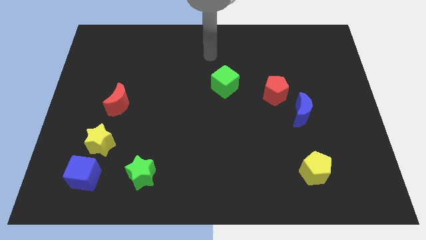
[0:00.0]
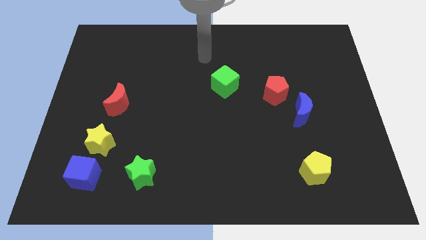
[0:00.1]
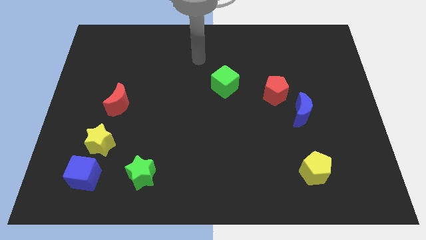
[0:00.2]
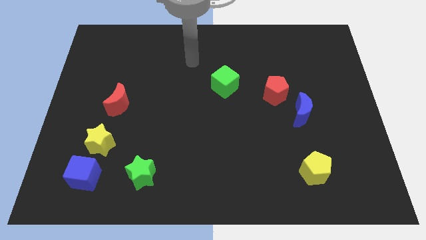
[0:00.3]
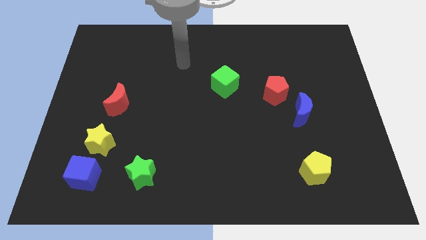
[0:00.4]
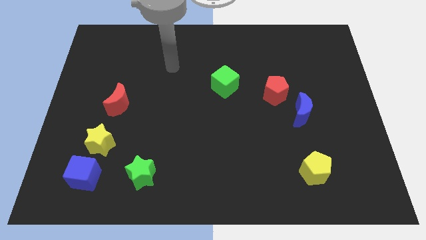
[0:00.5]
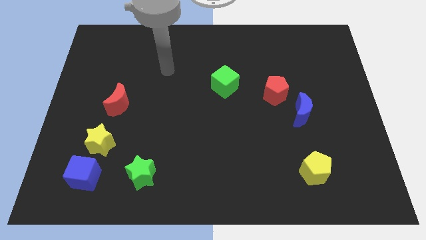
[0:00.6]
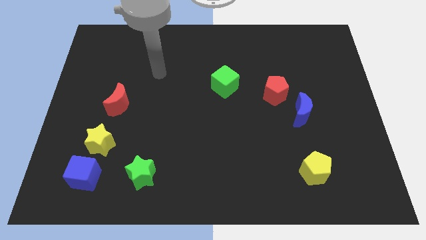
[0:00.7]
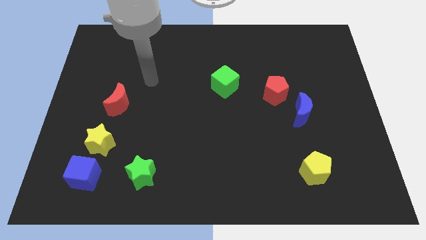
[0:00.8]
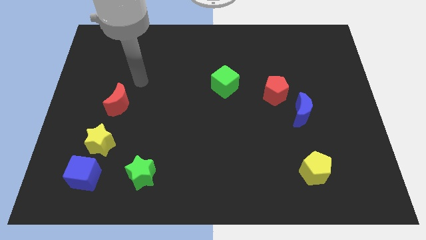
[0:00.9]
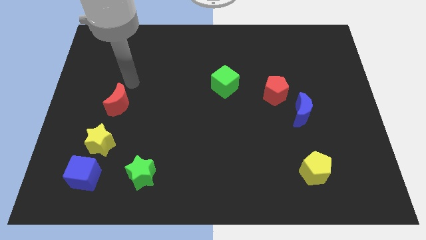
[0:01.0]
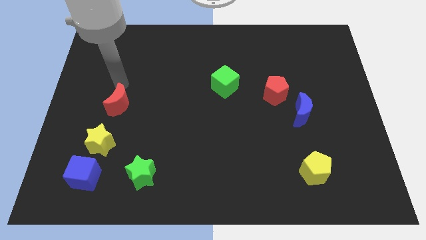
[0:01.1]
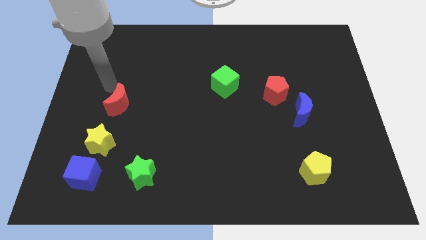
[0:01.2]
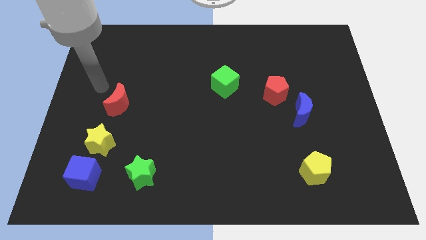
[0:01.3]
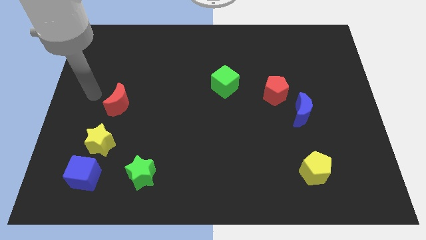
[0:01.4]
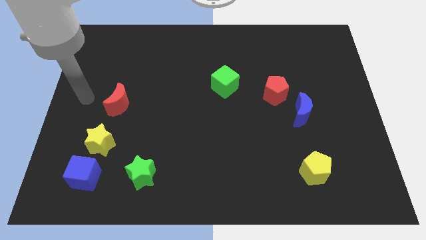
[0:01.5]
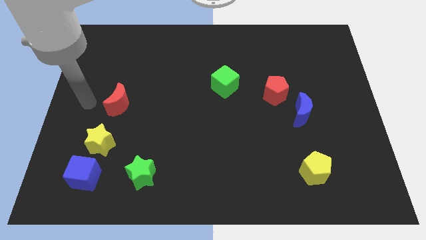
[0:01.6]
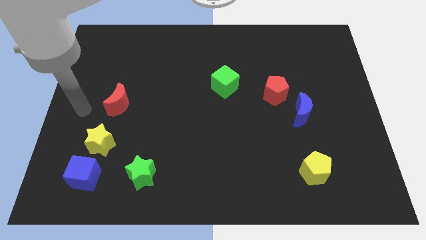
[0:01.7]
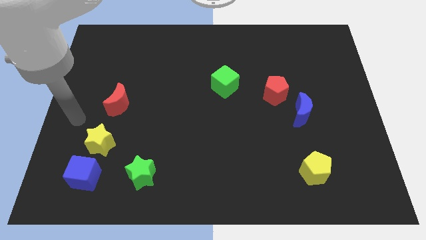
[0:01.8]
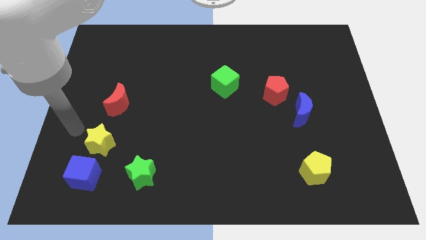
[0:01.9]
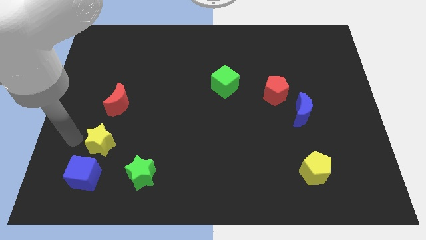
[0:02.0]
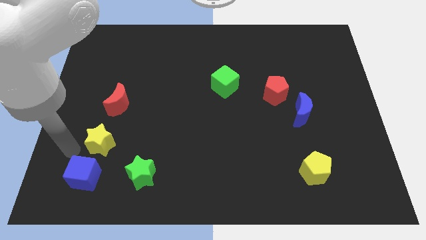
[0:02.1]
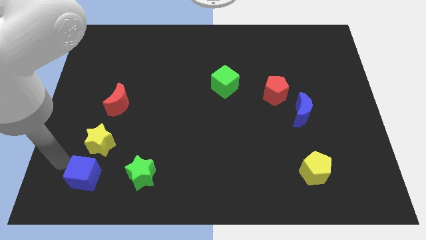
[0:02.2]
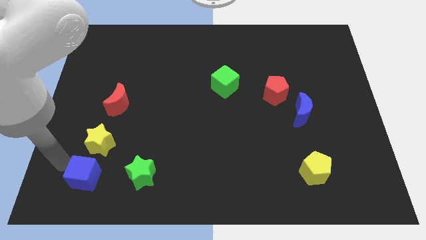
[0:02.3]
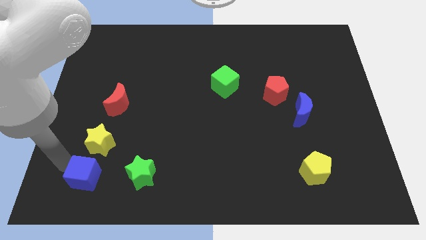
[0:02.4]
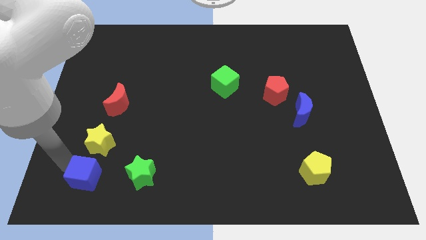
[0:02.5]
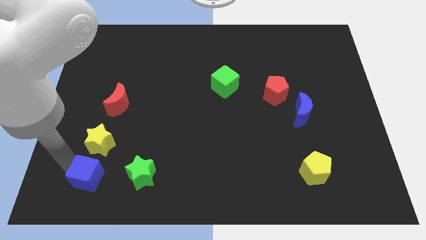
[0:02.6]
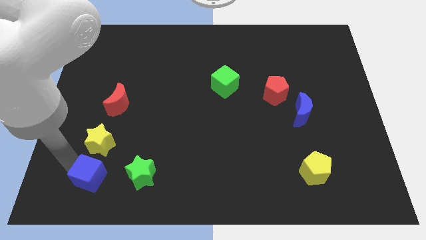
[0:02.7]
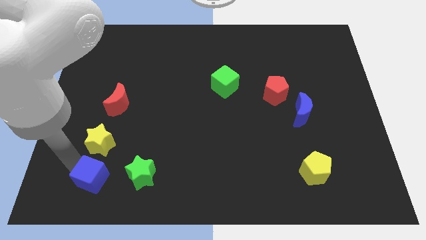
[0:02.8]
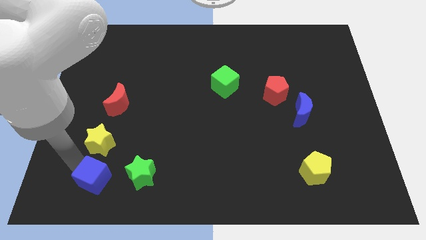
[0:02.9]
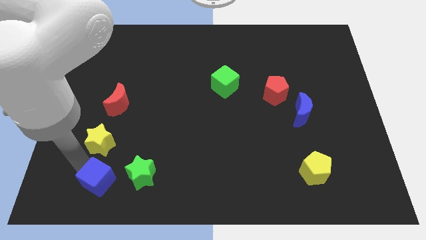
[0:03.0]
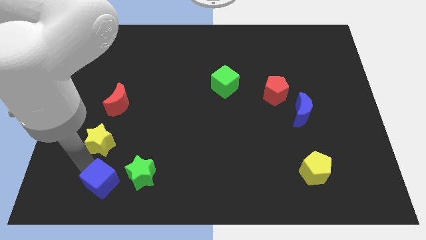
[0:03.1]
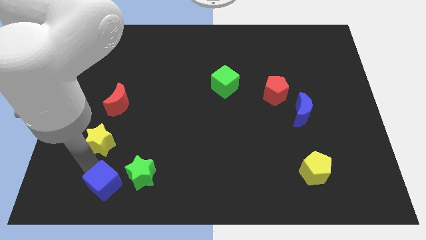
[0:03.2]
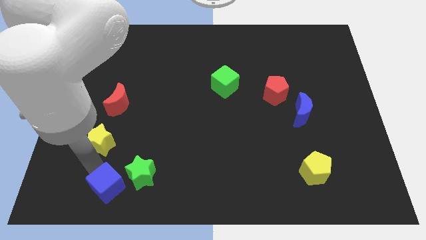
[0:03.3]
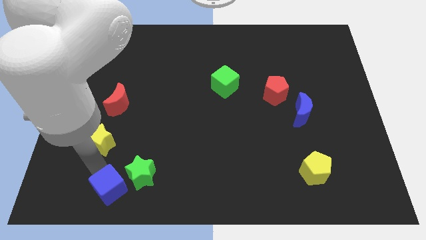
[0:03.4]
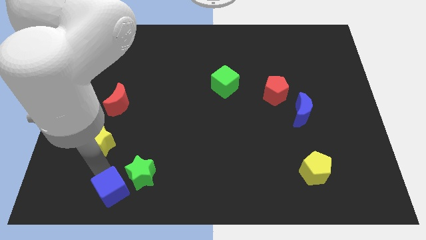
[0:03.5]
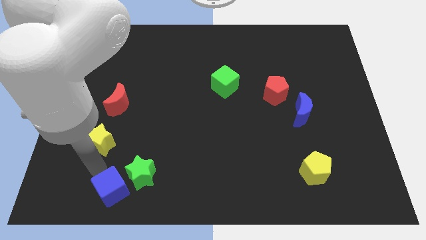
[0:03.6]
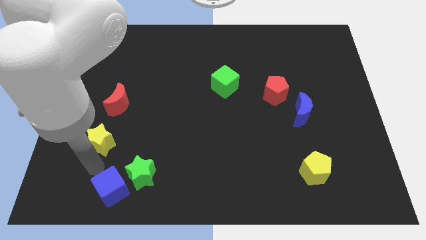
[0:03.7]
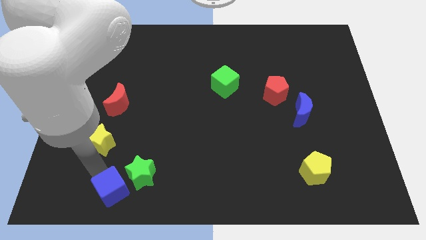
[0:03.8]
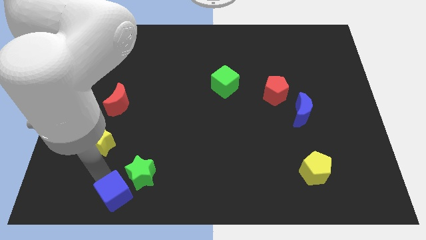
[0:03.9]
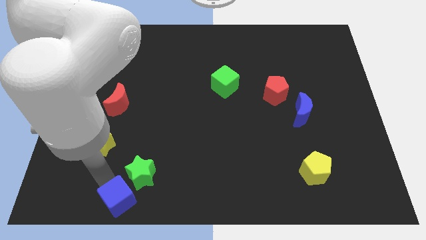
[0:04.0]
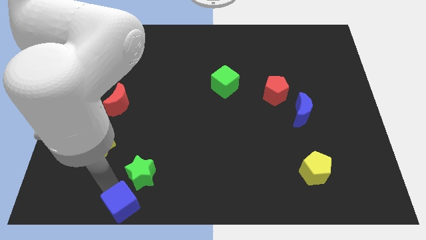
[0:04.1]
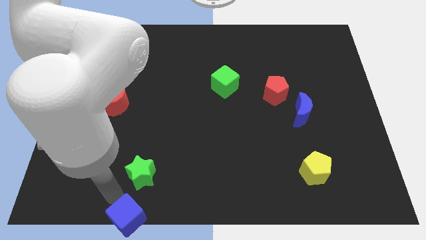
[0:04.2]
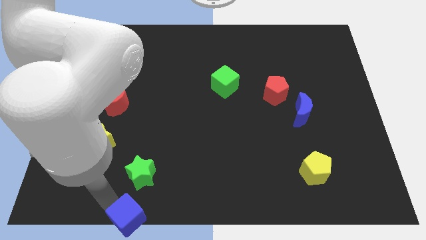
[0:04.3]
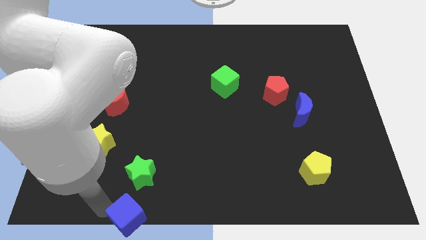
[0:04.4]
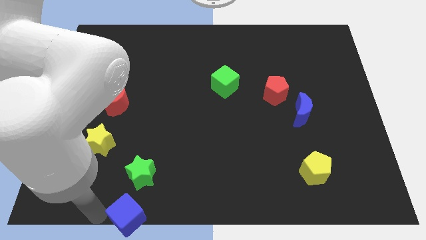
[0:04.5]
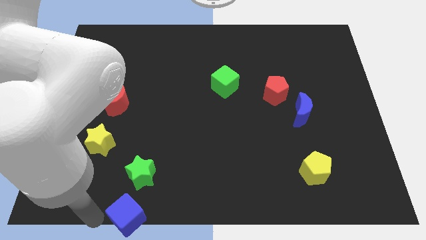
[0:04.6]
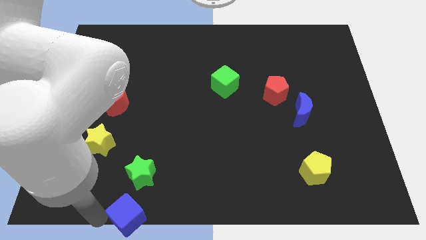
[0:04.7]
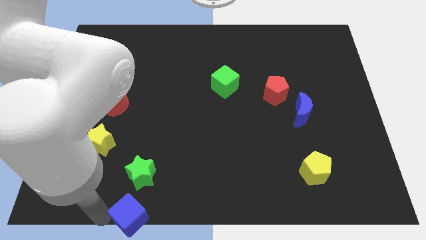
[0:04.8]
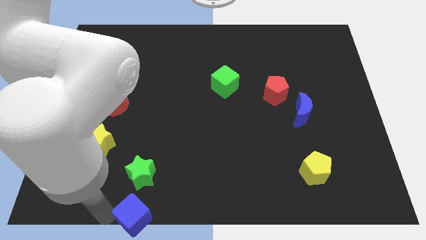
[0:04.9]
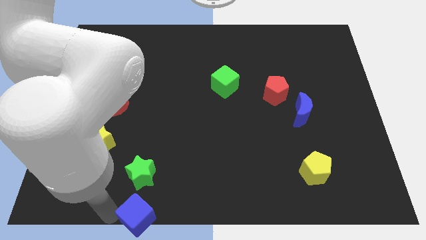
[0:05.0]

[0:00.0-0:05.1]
move the blue cube to the bottom side

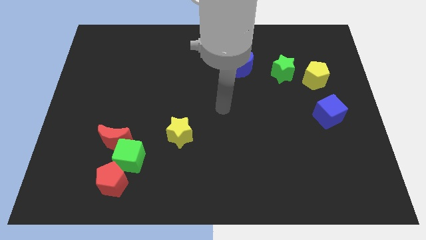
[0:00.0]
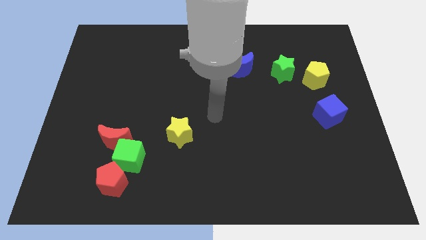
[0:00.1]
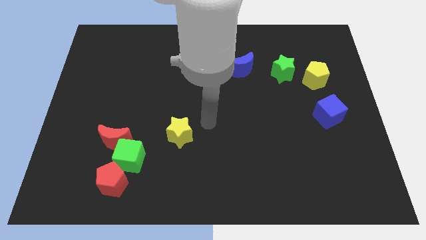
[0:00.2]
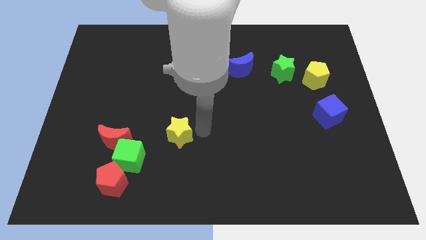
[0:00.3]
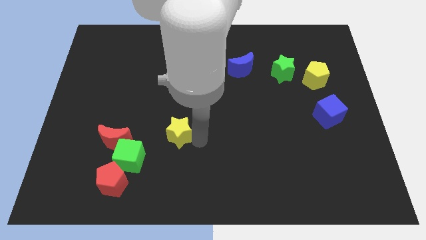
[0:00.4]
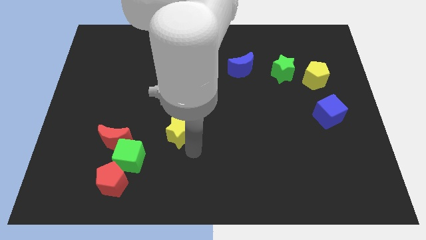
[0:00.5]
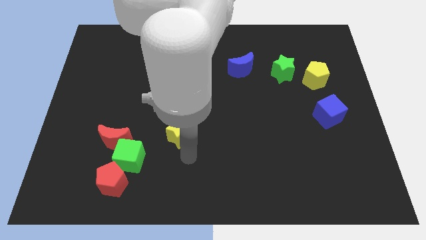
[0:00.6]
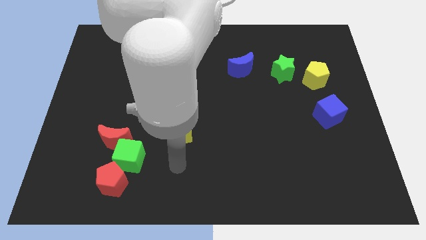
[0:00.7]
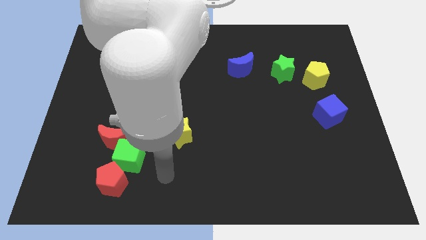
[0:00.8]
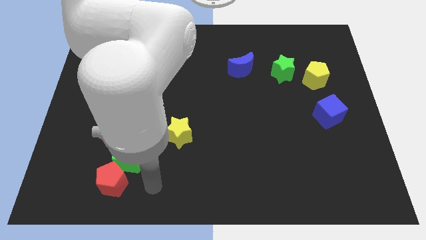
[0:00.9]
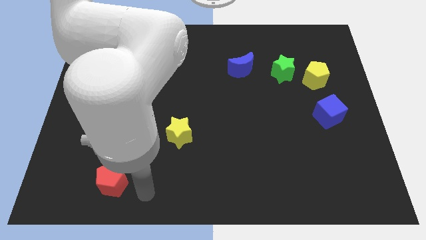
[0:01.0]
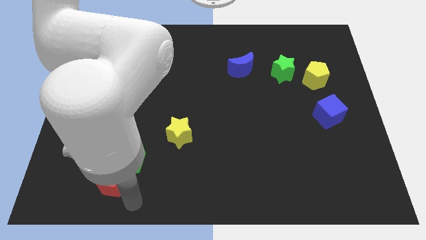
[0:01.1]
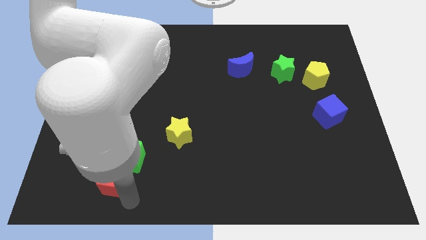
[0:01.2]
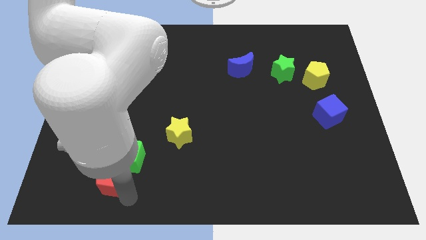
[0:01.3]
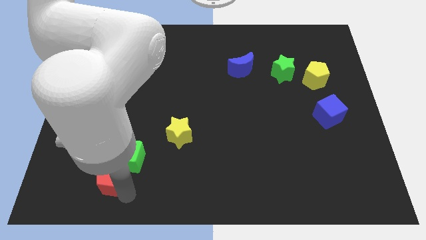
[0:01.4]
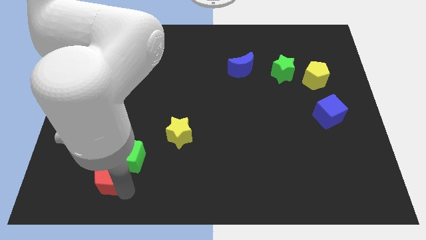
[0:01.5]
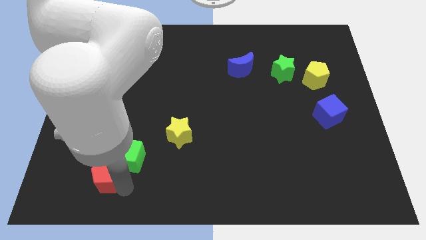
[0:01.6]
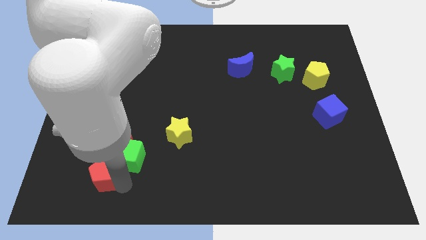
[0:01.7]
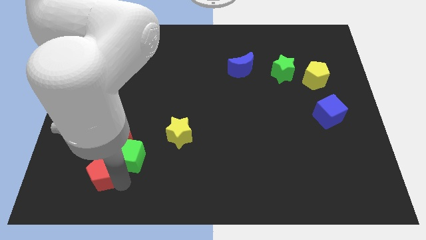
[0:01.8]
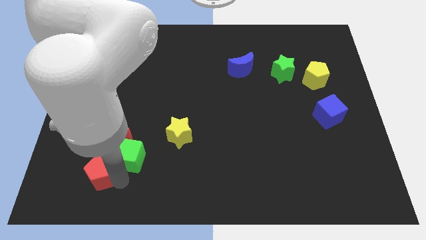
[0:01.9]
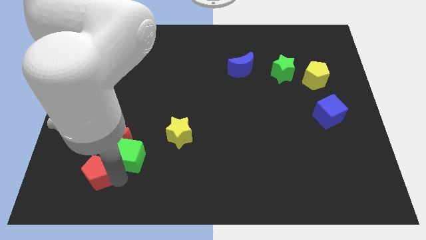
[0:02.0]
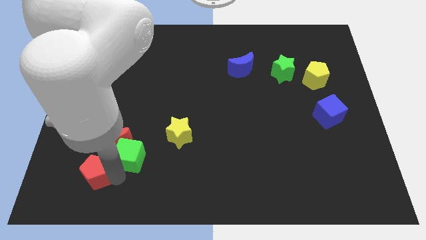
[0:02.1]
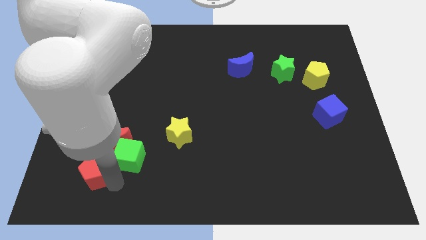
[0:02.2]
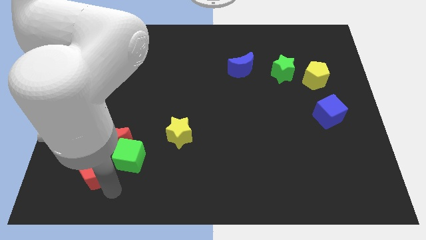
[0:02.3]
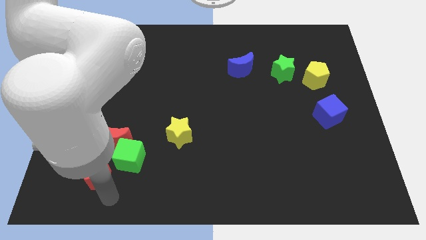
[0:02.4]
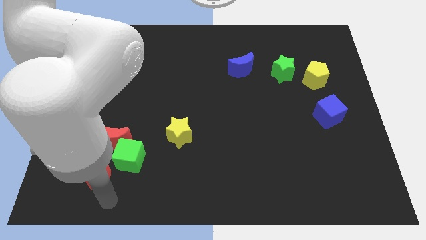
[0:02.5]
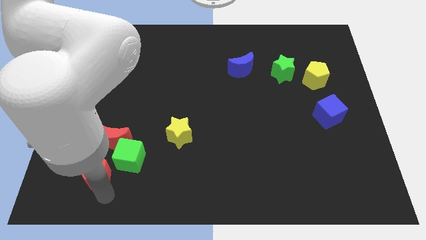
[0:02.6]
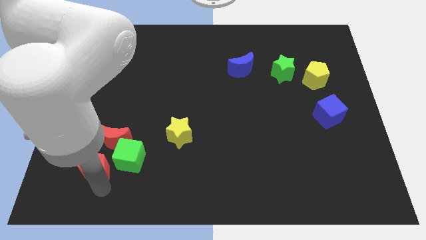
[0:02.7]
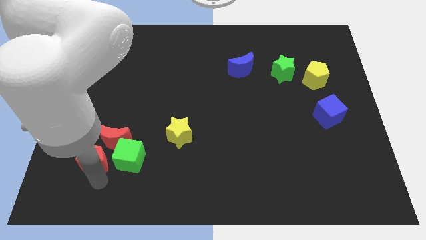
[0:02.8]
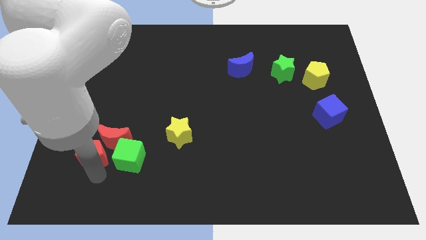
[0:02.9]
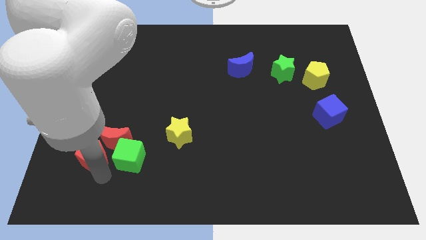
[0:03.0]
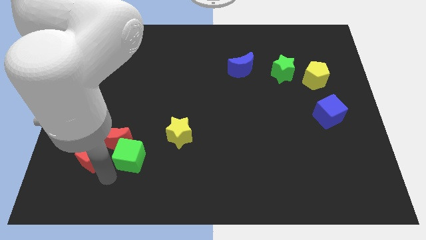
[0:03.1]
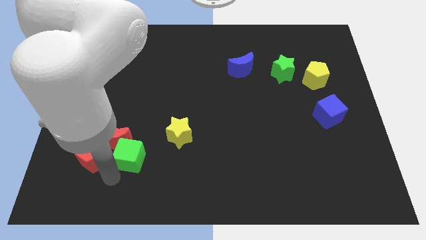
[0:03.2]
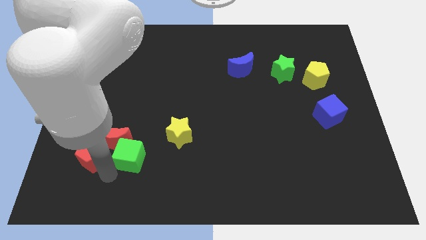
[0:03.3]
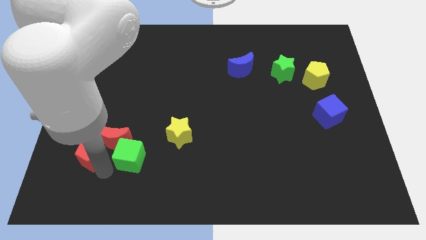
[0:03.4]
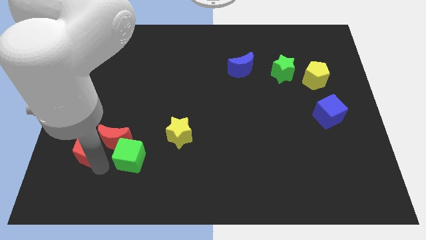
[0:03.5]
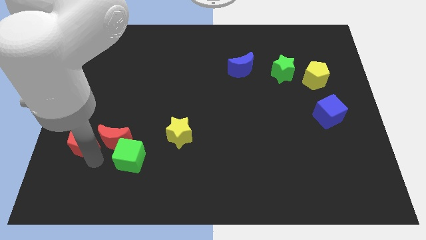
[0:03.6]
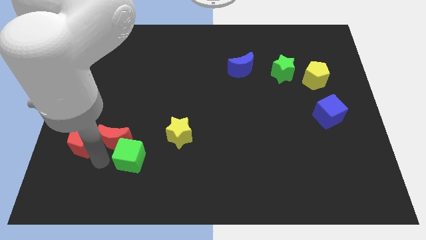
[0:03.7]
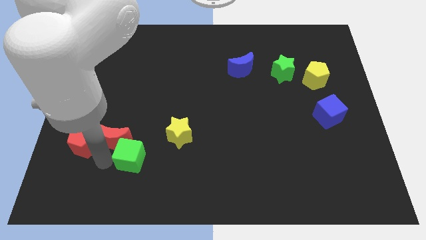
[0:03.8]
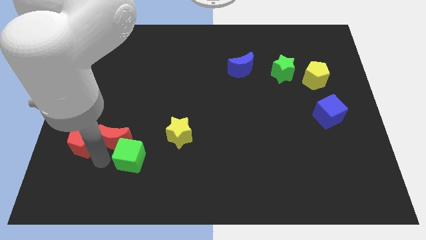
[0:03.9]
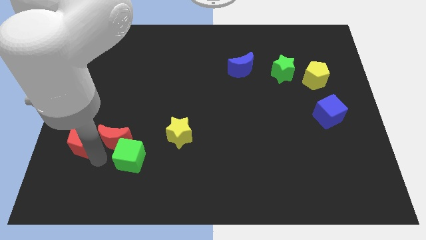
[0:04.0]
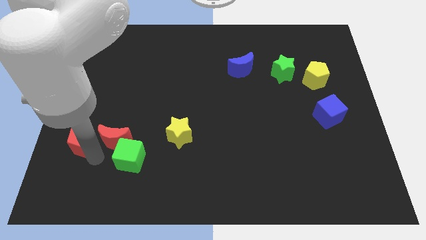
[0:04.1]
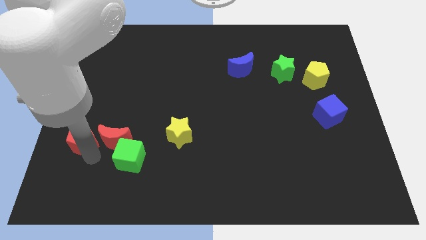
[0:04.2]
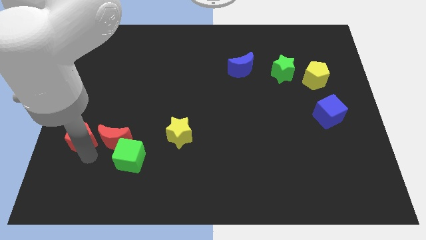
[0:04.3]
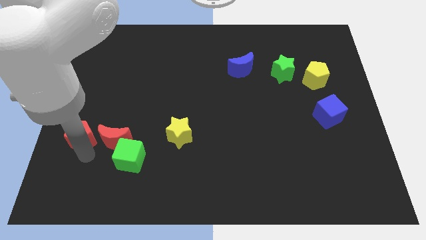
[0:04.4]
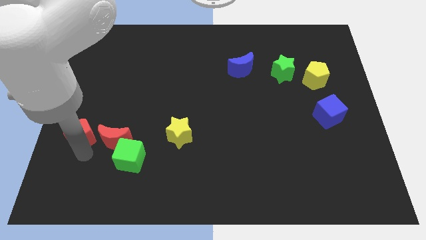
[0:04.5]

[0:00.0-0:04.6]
put the red pentagon to the left side
